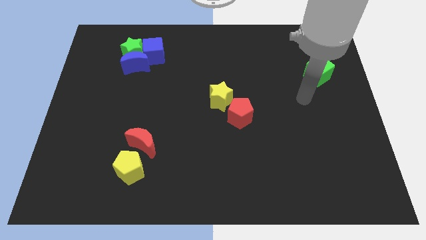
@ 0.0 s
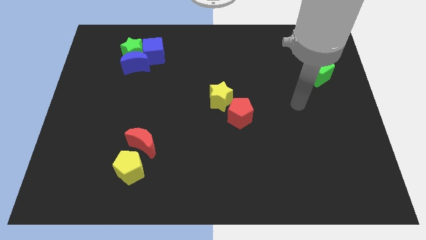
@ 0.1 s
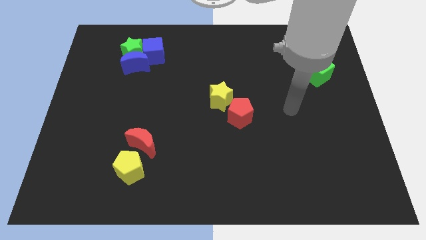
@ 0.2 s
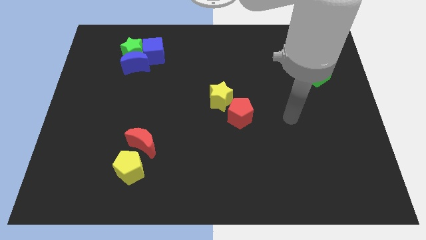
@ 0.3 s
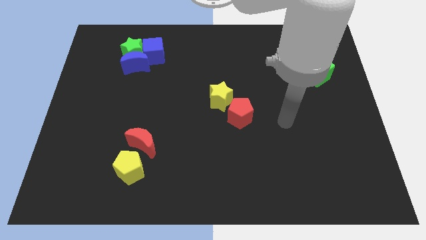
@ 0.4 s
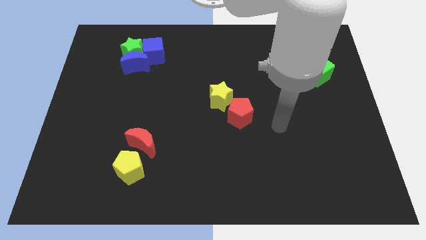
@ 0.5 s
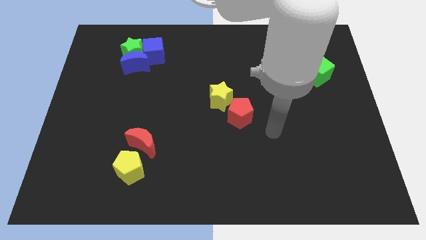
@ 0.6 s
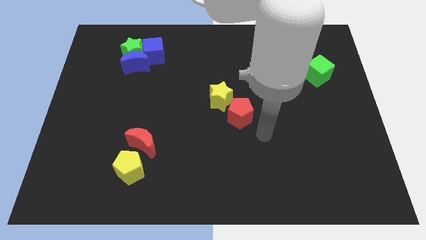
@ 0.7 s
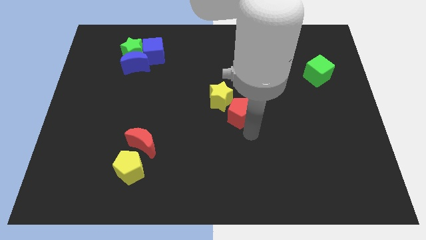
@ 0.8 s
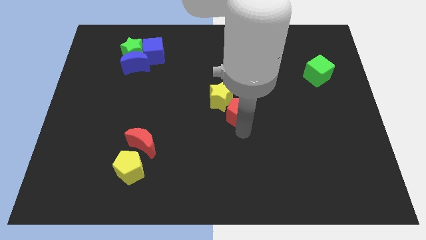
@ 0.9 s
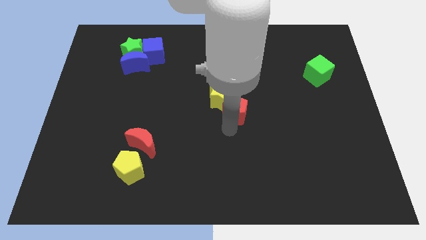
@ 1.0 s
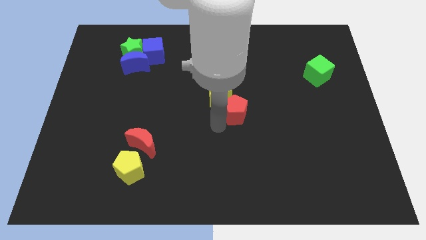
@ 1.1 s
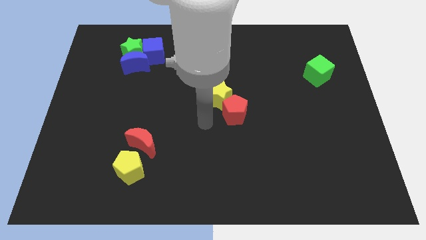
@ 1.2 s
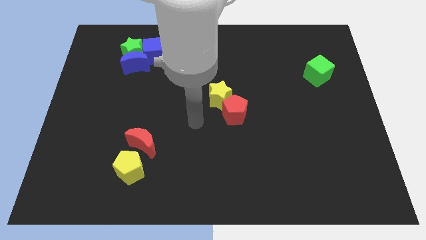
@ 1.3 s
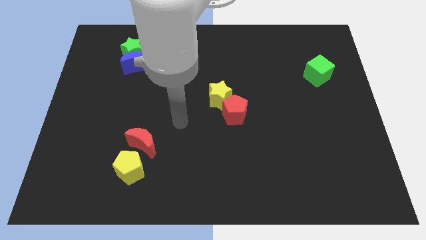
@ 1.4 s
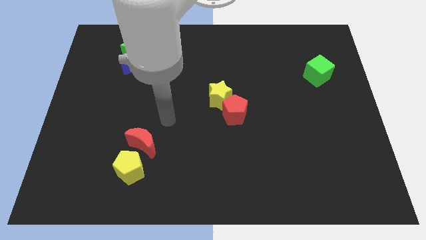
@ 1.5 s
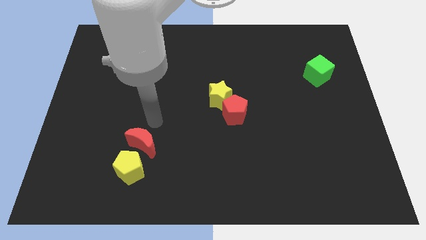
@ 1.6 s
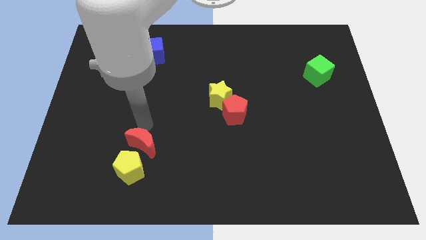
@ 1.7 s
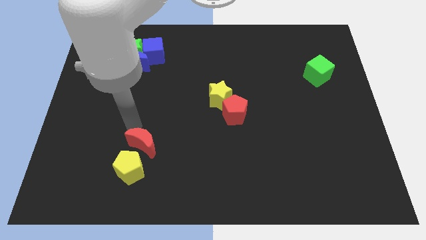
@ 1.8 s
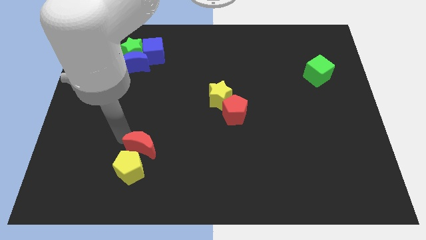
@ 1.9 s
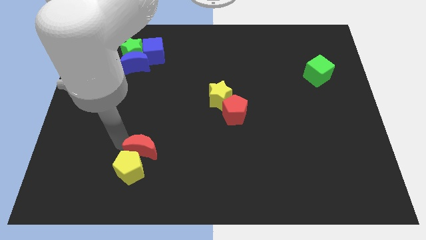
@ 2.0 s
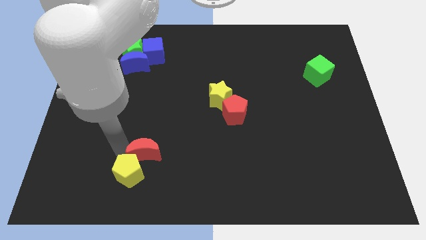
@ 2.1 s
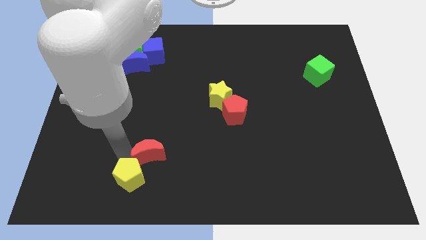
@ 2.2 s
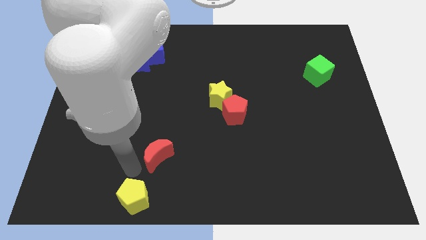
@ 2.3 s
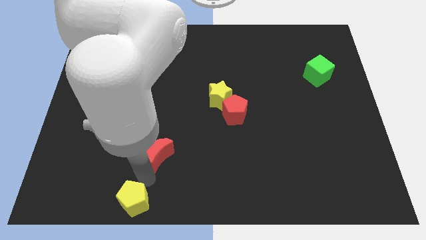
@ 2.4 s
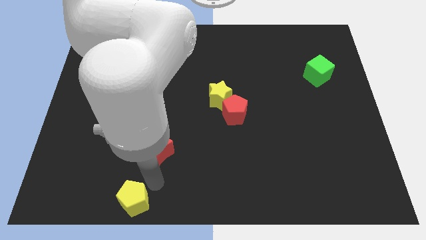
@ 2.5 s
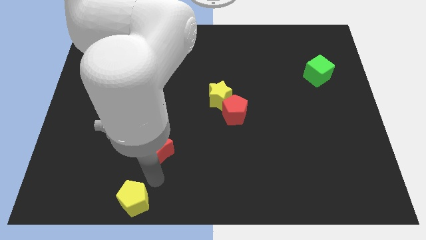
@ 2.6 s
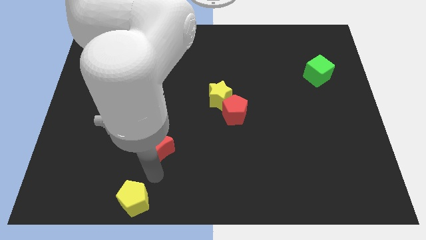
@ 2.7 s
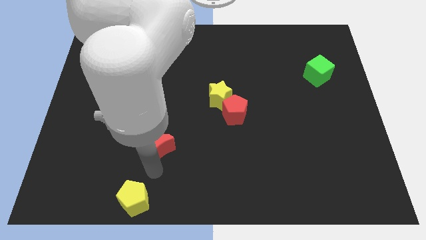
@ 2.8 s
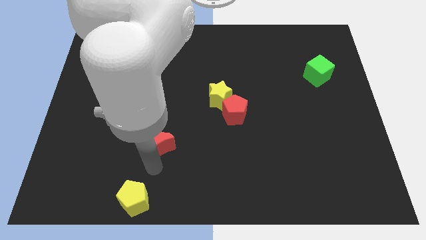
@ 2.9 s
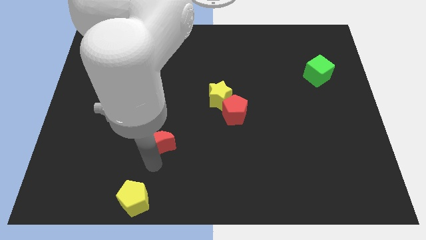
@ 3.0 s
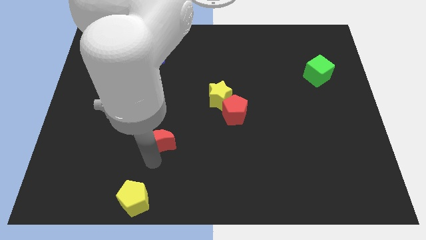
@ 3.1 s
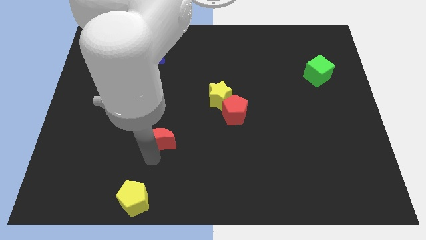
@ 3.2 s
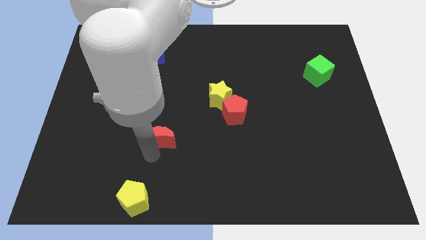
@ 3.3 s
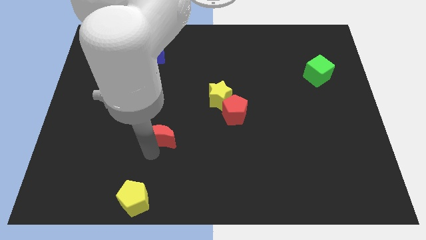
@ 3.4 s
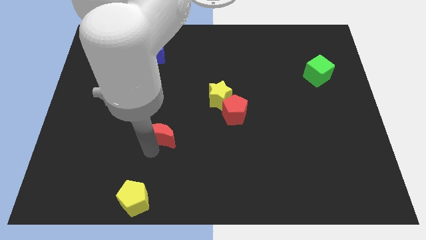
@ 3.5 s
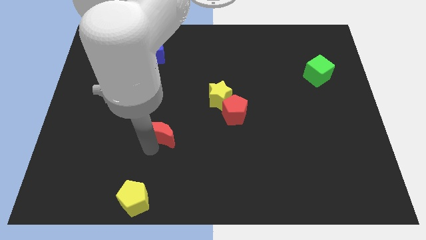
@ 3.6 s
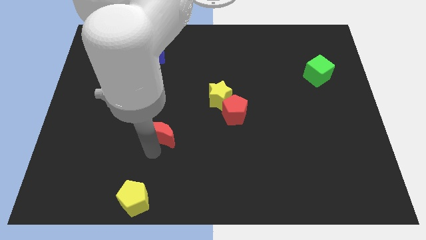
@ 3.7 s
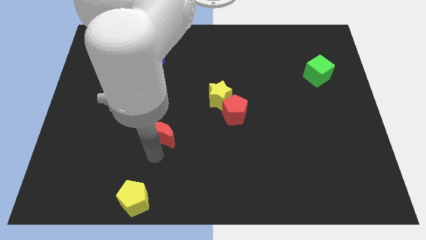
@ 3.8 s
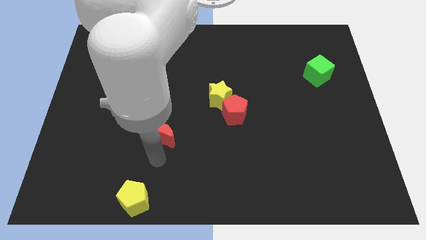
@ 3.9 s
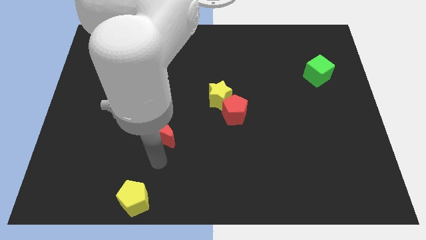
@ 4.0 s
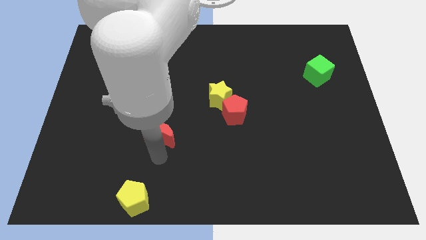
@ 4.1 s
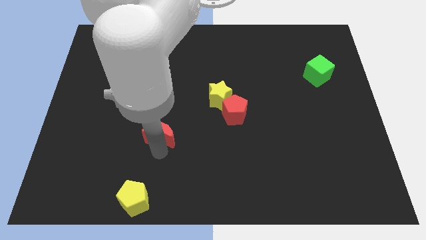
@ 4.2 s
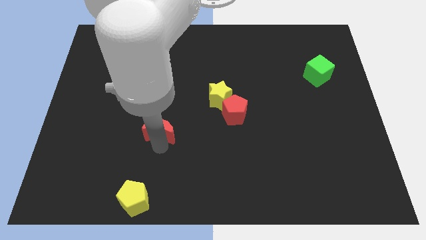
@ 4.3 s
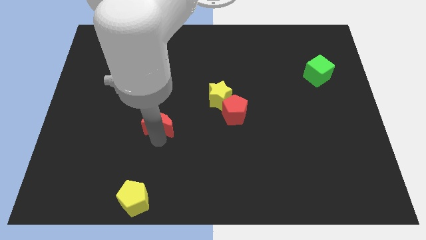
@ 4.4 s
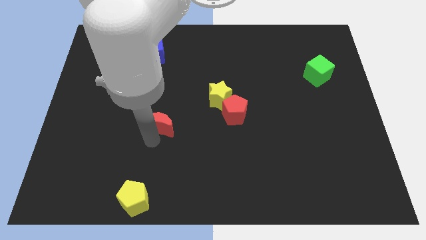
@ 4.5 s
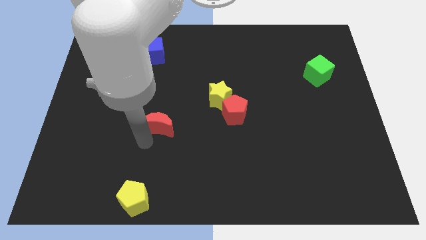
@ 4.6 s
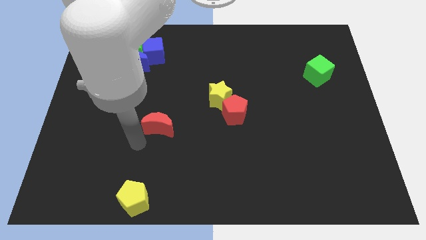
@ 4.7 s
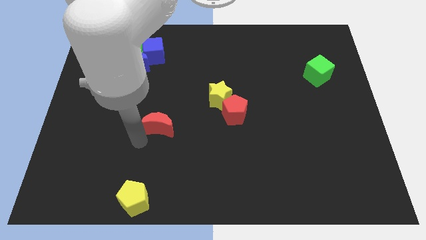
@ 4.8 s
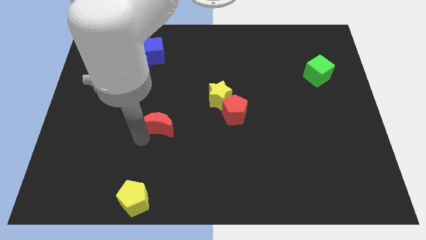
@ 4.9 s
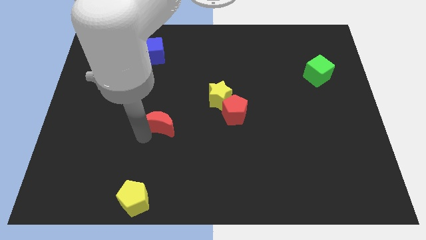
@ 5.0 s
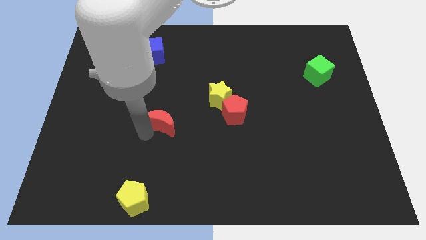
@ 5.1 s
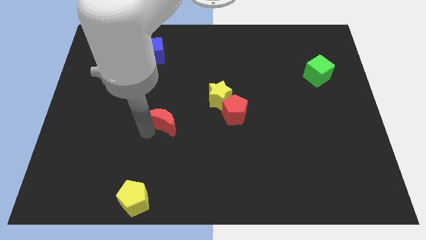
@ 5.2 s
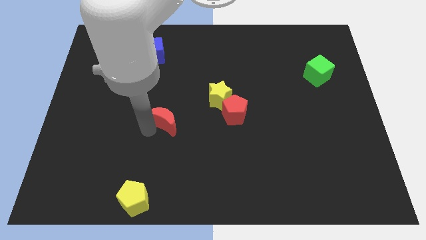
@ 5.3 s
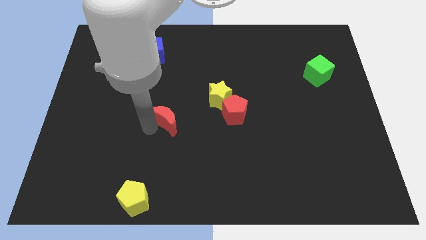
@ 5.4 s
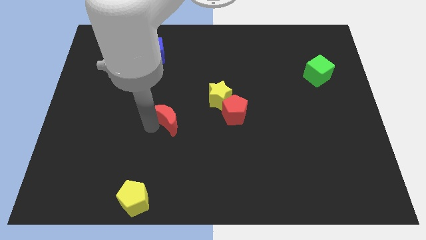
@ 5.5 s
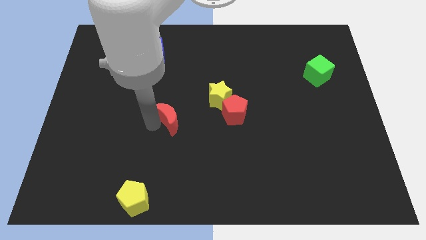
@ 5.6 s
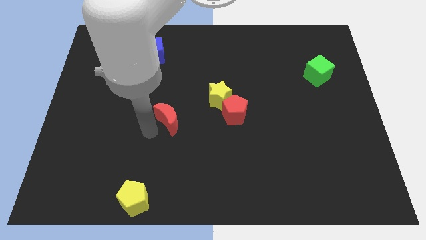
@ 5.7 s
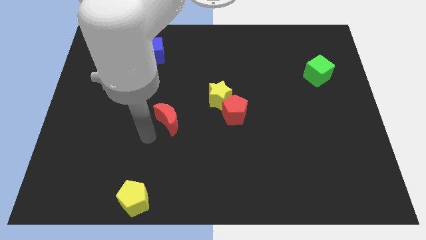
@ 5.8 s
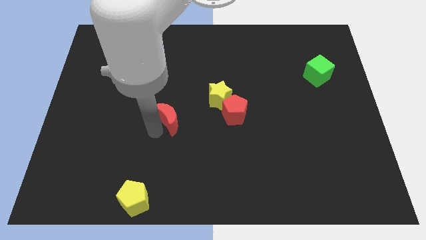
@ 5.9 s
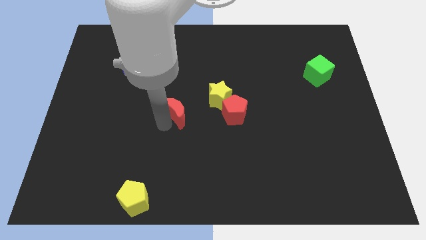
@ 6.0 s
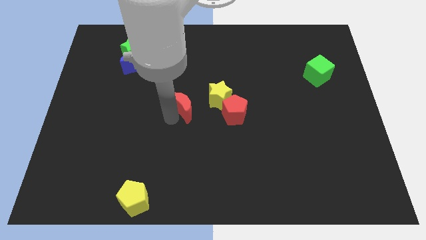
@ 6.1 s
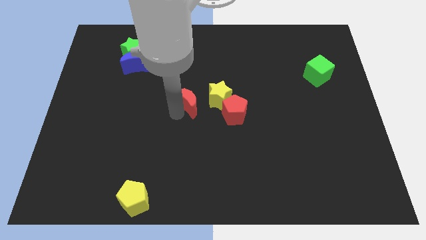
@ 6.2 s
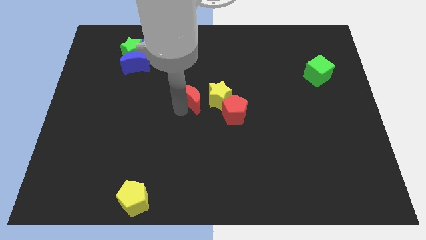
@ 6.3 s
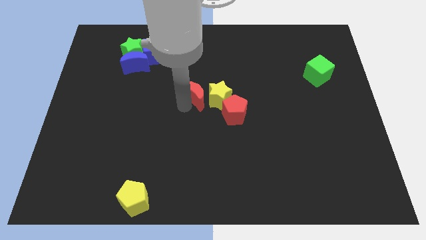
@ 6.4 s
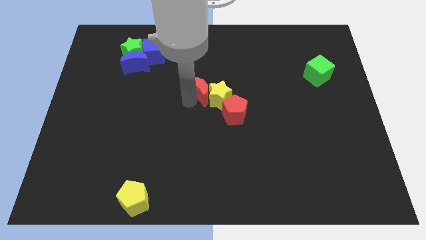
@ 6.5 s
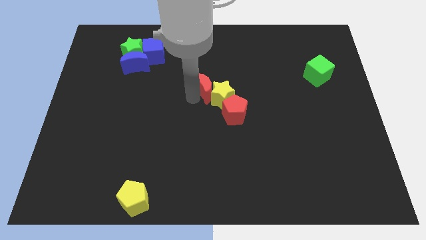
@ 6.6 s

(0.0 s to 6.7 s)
slide the red moon upwards and right

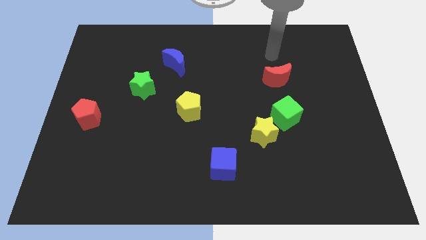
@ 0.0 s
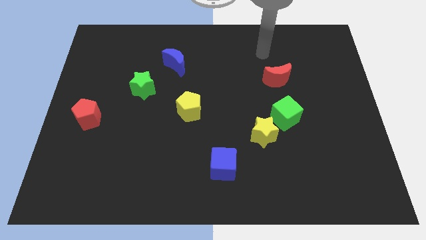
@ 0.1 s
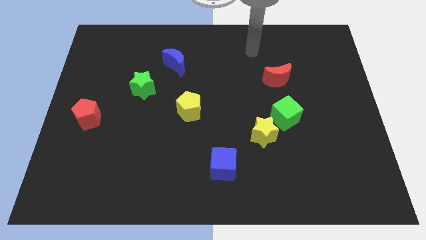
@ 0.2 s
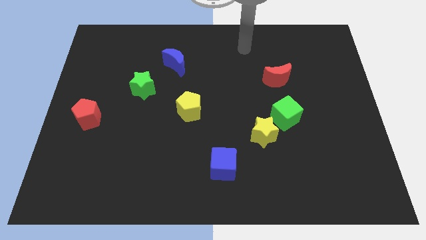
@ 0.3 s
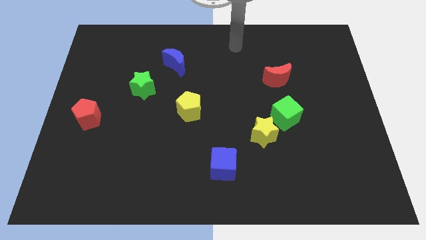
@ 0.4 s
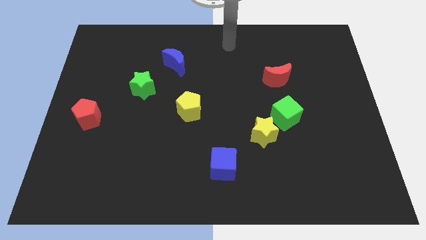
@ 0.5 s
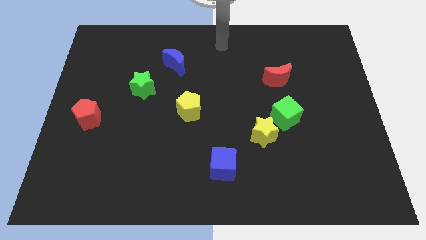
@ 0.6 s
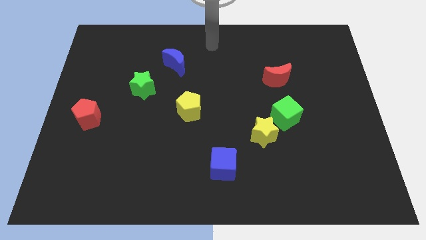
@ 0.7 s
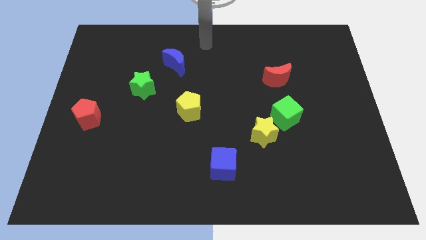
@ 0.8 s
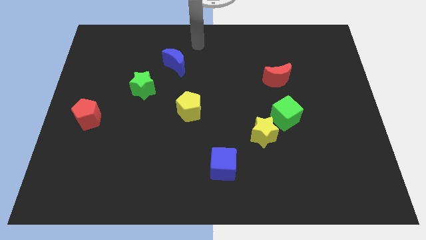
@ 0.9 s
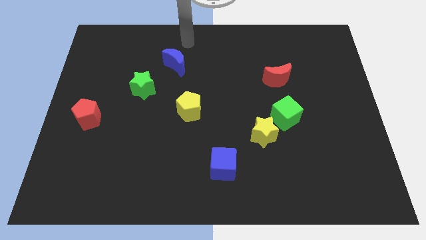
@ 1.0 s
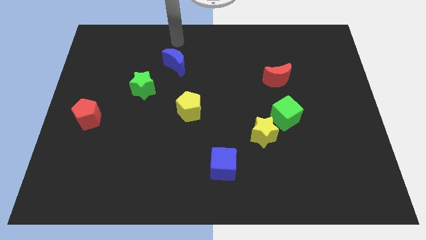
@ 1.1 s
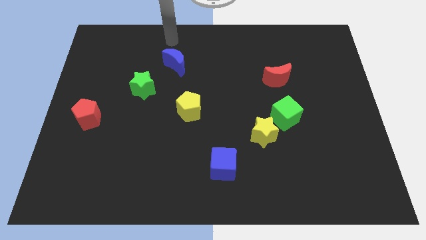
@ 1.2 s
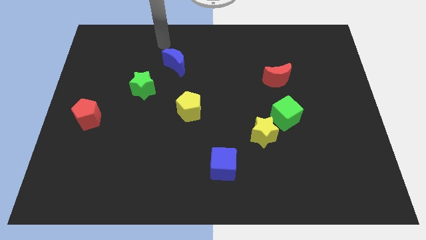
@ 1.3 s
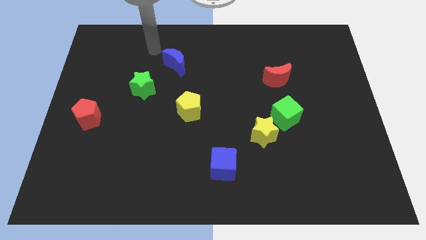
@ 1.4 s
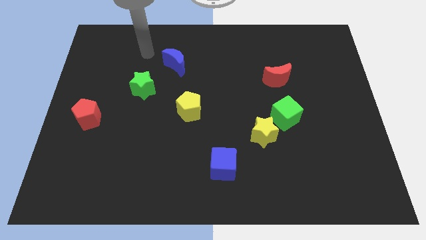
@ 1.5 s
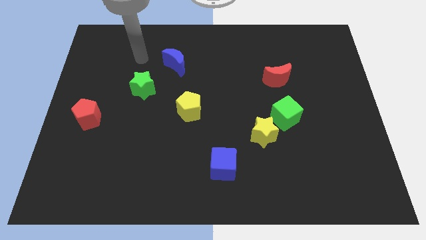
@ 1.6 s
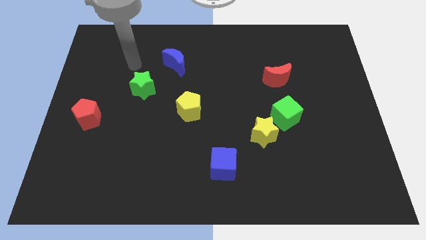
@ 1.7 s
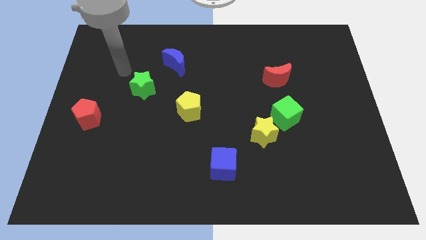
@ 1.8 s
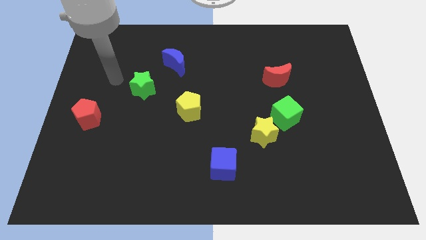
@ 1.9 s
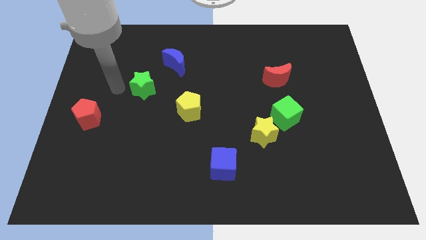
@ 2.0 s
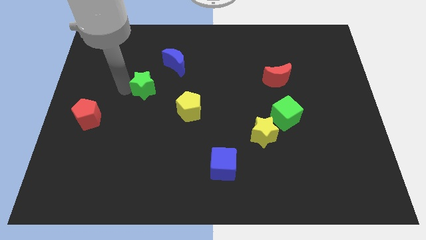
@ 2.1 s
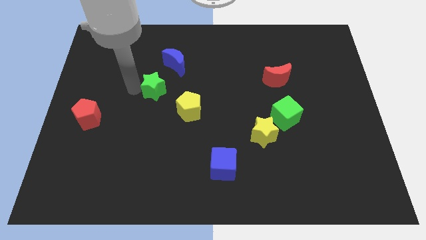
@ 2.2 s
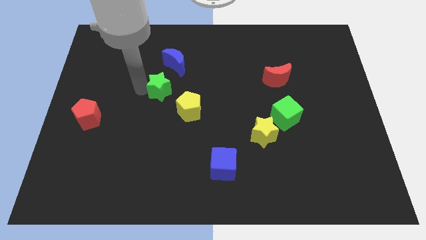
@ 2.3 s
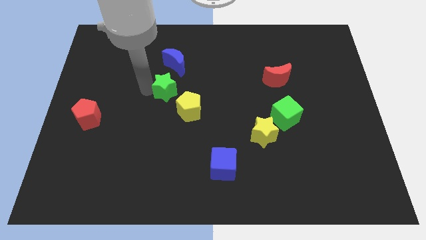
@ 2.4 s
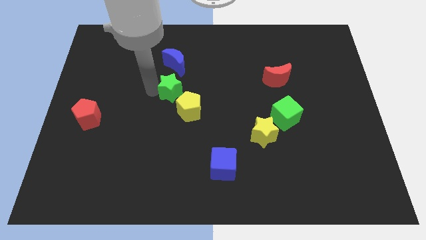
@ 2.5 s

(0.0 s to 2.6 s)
slightly move the green star right
